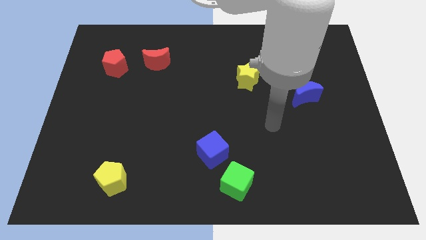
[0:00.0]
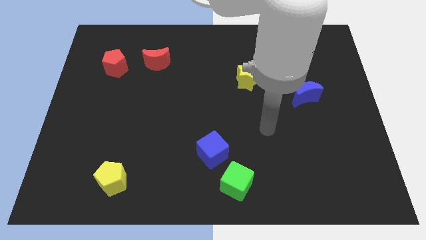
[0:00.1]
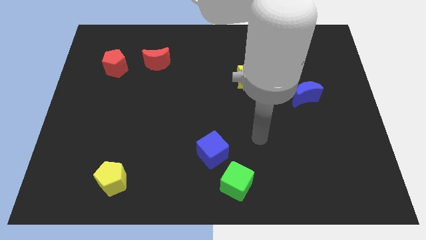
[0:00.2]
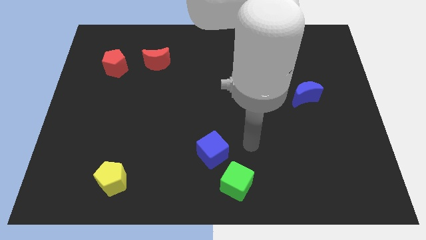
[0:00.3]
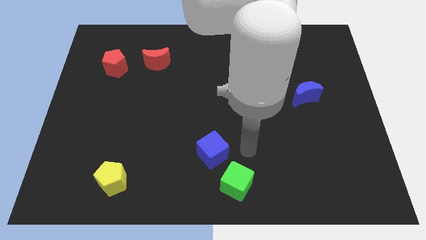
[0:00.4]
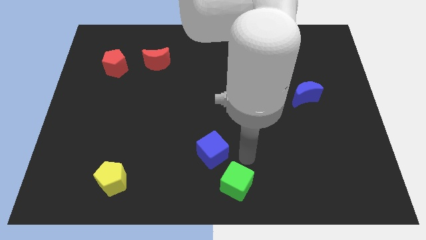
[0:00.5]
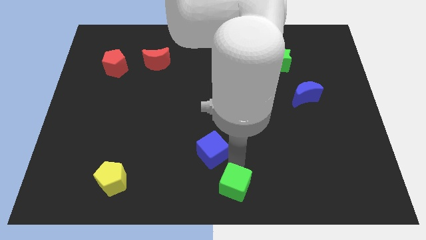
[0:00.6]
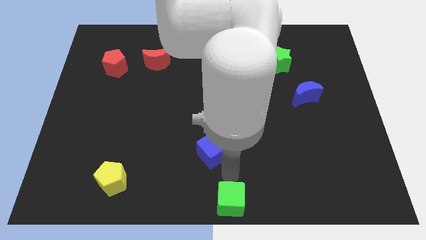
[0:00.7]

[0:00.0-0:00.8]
separate the blue cube from the green cube

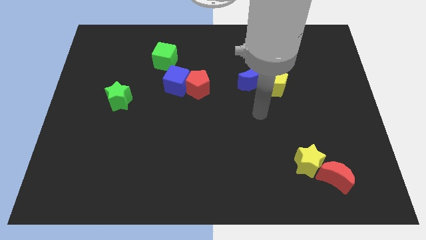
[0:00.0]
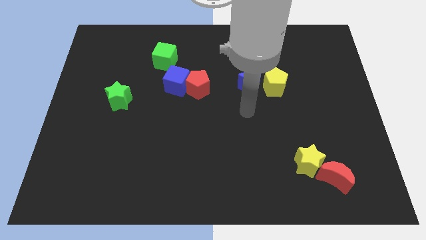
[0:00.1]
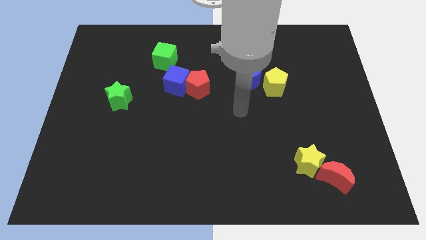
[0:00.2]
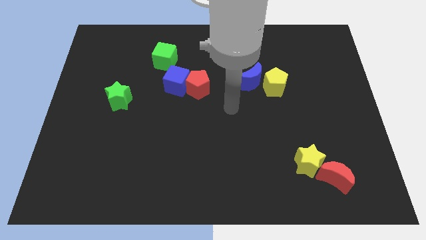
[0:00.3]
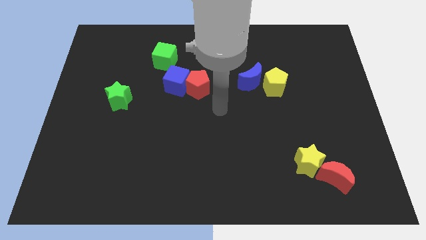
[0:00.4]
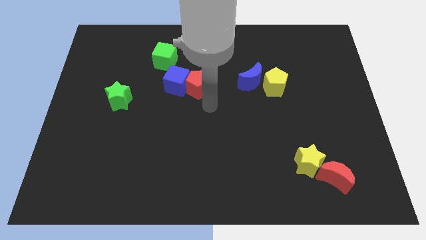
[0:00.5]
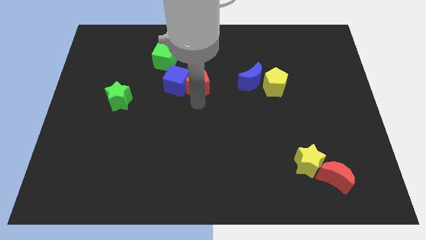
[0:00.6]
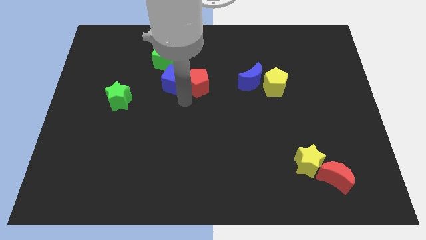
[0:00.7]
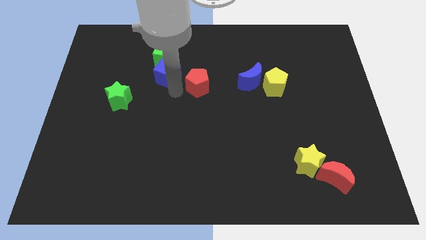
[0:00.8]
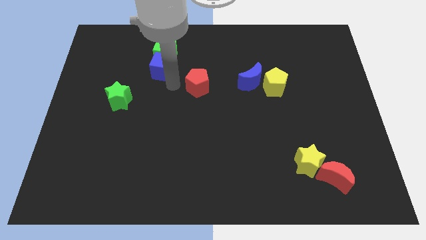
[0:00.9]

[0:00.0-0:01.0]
pull the red pentagon apart from the blue cube

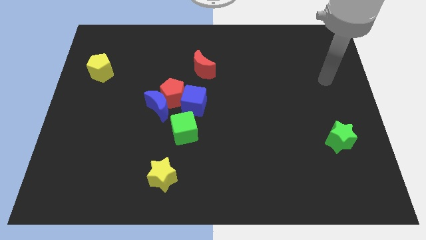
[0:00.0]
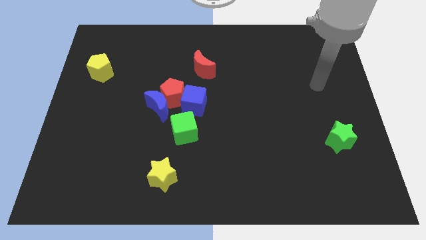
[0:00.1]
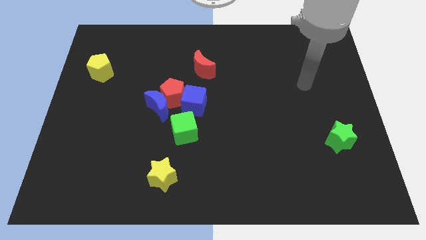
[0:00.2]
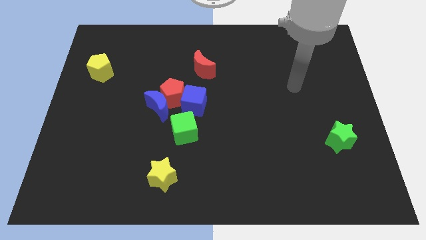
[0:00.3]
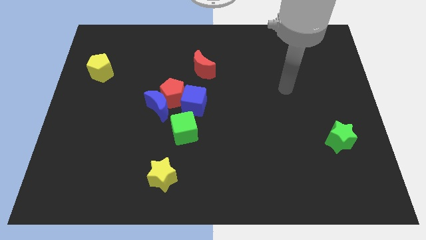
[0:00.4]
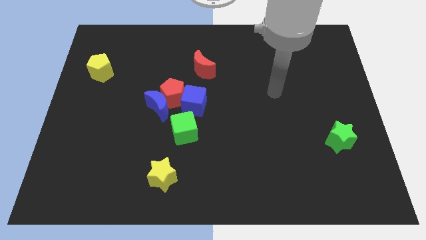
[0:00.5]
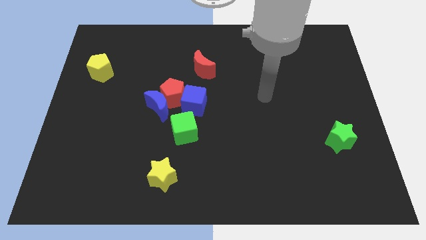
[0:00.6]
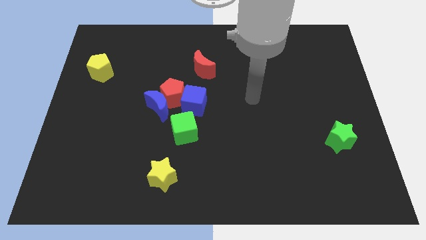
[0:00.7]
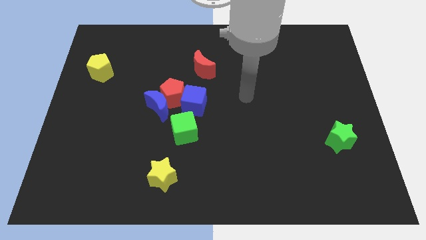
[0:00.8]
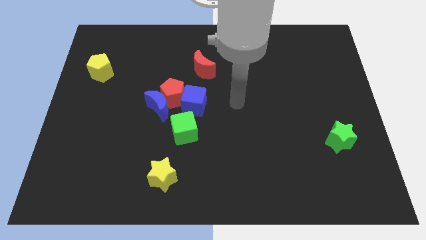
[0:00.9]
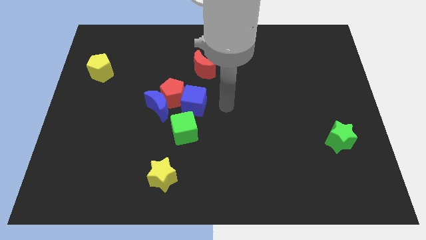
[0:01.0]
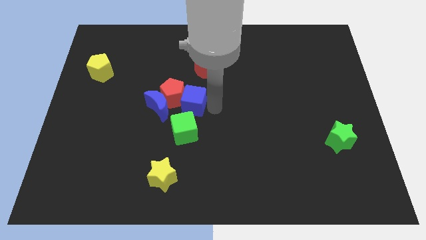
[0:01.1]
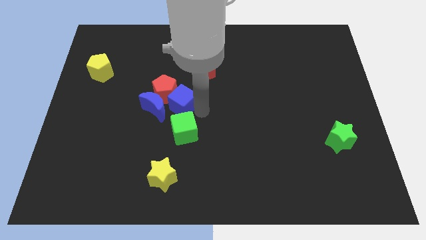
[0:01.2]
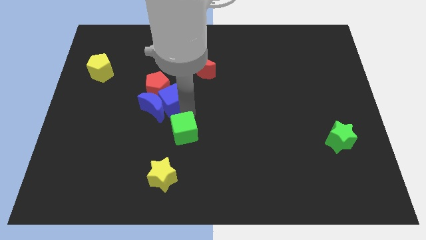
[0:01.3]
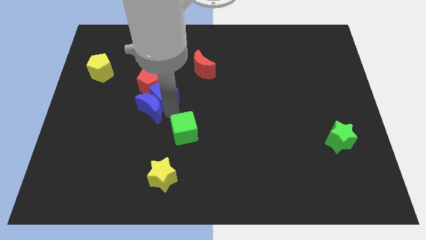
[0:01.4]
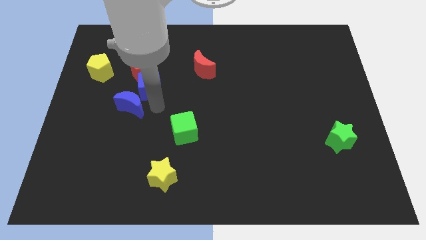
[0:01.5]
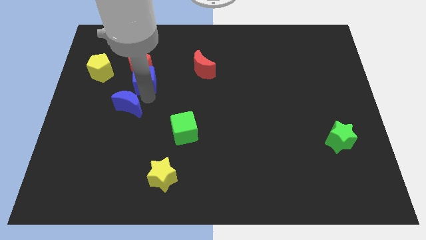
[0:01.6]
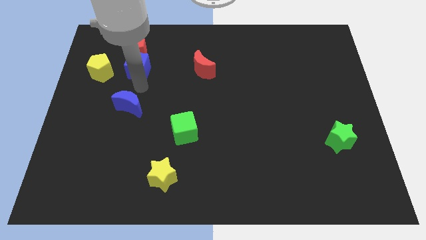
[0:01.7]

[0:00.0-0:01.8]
pull the red pentagon apart from the blue moon and blue cube

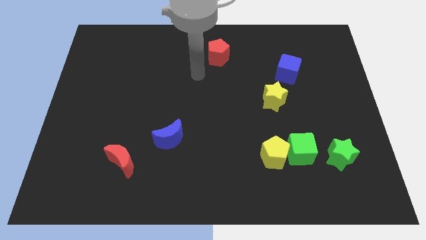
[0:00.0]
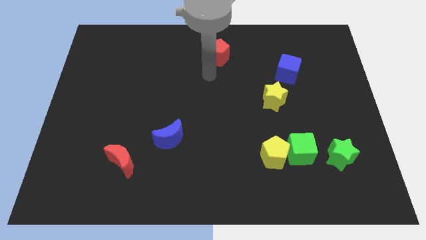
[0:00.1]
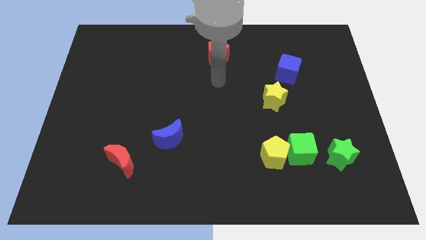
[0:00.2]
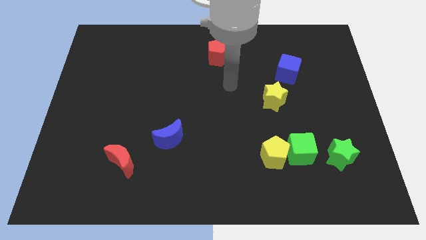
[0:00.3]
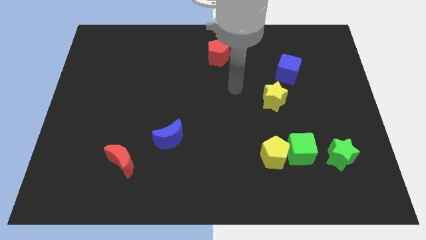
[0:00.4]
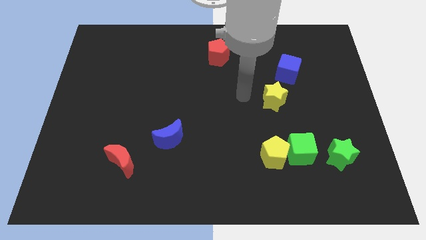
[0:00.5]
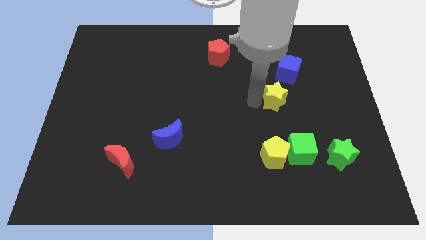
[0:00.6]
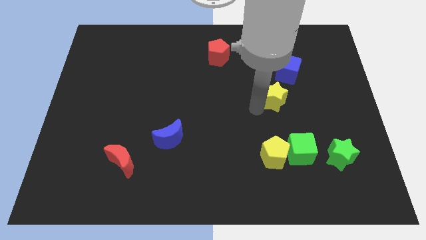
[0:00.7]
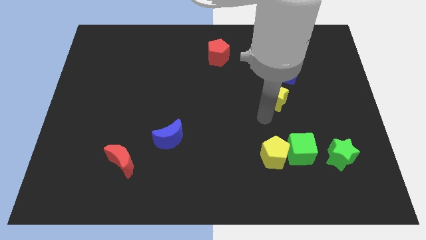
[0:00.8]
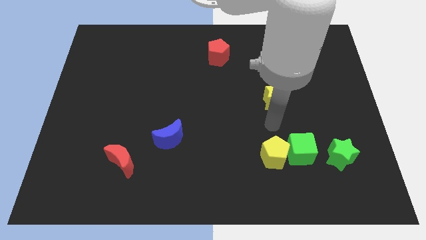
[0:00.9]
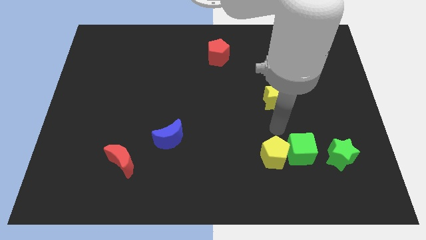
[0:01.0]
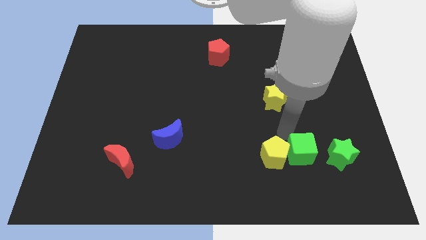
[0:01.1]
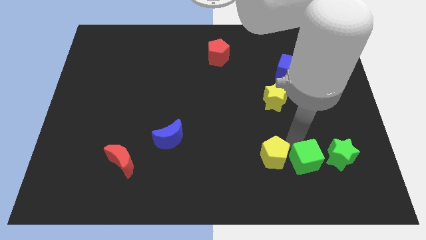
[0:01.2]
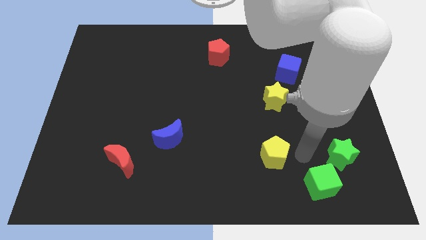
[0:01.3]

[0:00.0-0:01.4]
separate the yellow pentagon from the green cube

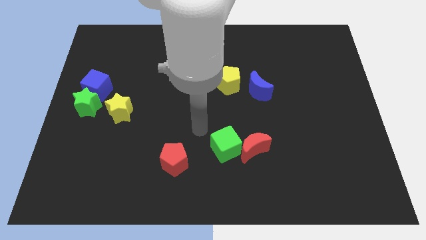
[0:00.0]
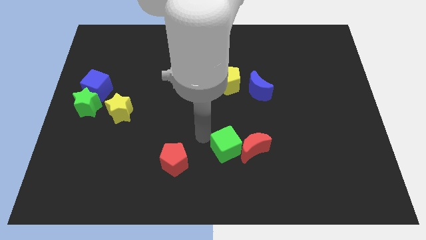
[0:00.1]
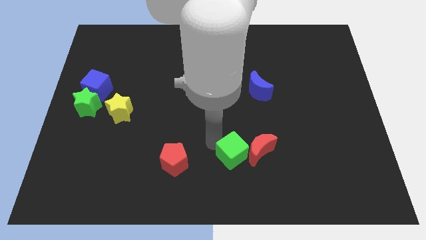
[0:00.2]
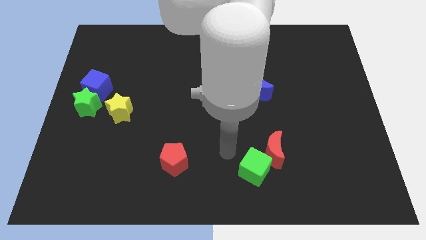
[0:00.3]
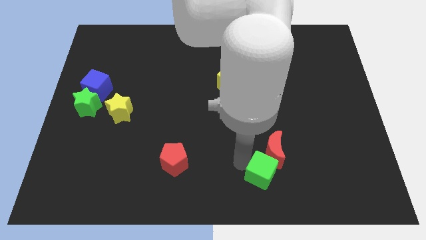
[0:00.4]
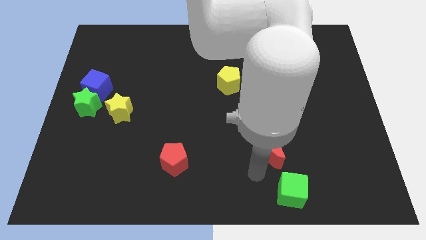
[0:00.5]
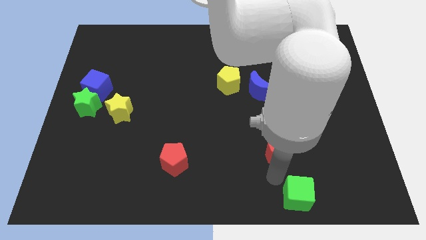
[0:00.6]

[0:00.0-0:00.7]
pull the red moon apart from the green cube

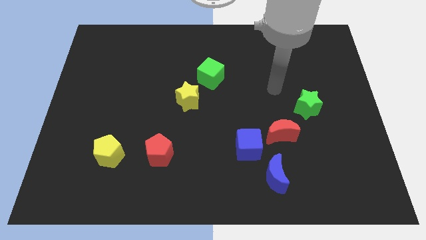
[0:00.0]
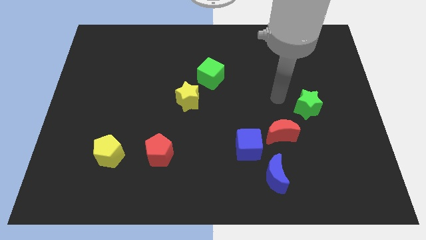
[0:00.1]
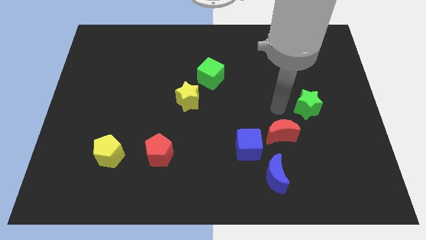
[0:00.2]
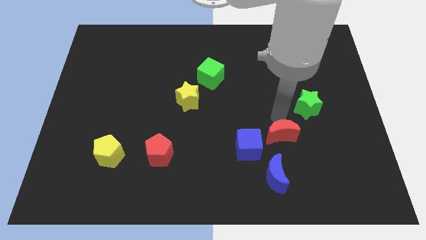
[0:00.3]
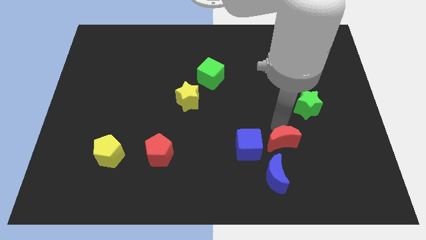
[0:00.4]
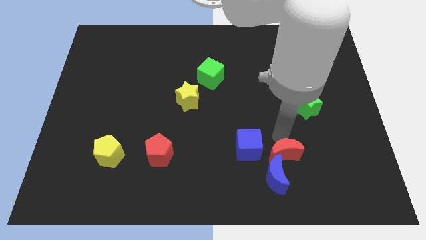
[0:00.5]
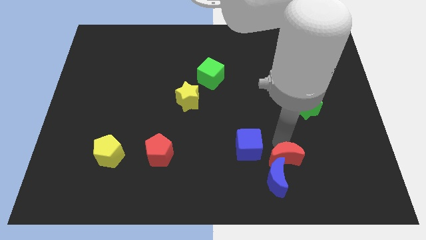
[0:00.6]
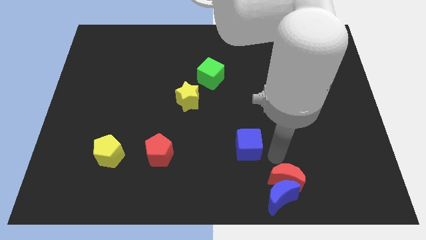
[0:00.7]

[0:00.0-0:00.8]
separate the blue cube from the red moon and blue moon

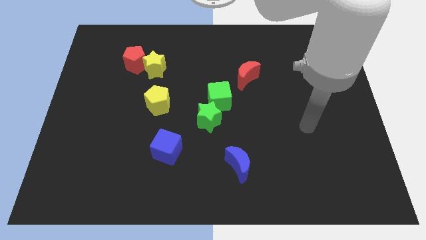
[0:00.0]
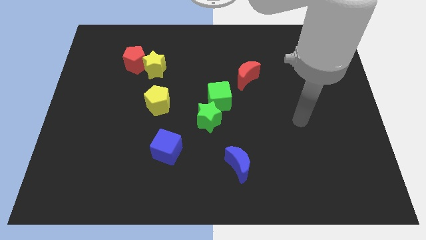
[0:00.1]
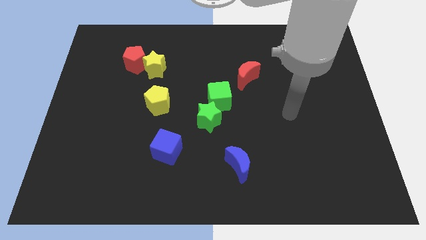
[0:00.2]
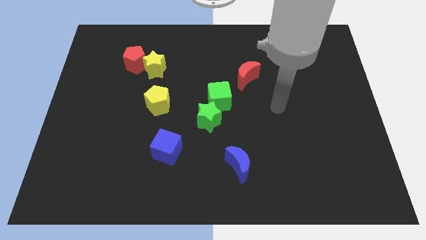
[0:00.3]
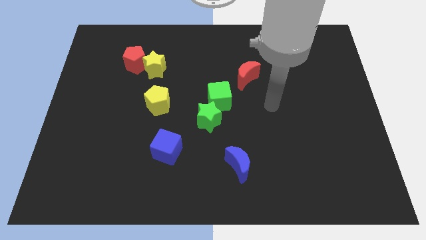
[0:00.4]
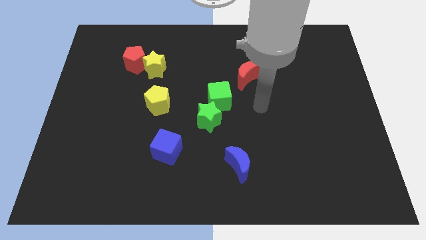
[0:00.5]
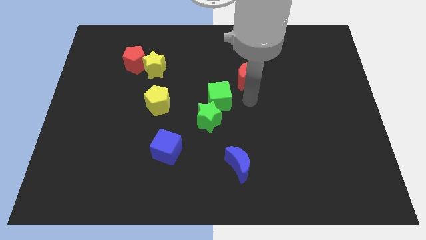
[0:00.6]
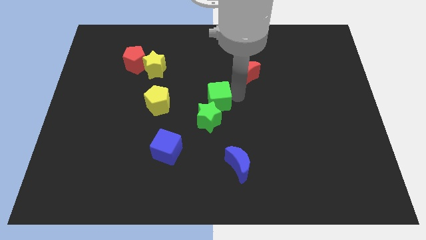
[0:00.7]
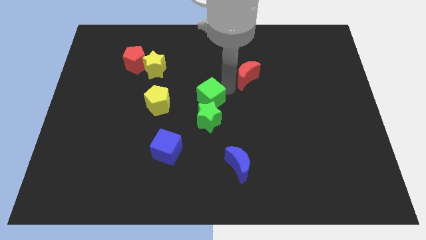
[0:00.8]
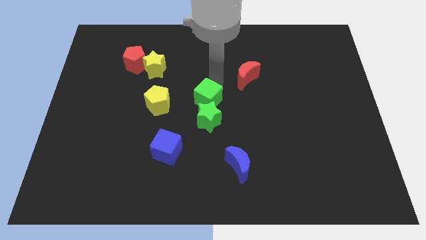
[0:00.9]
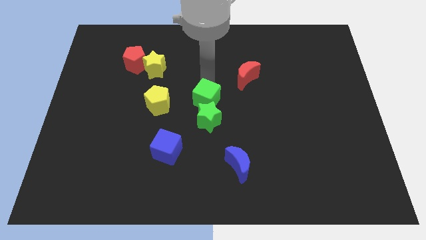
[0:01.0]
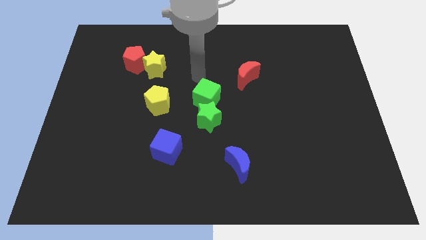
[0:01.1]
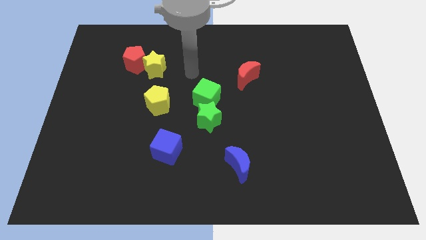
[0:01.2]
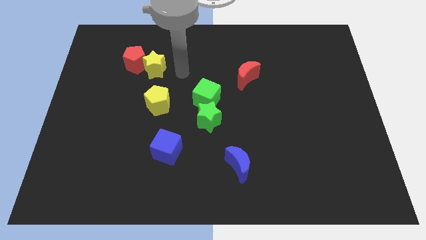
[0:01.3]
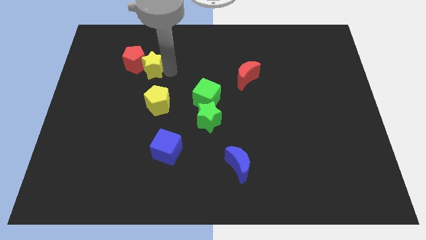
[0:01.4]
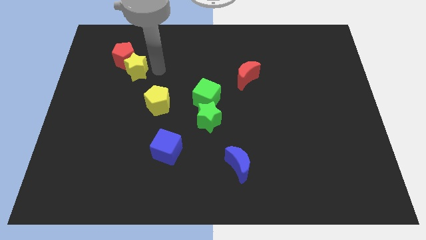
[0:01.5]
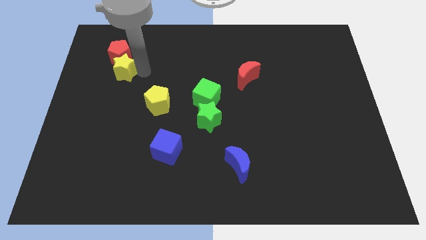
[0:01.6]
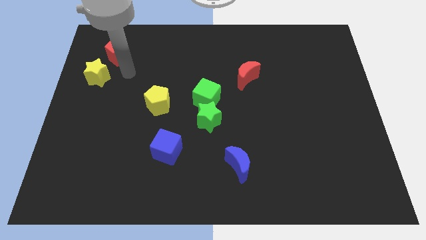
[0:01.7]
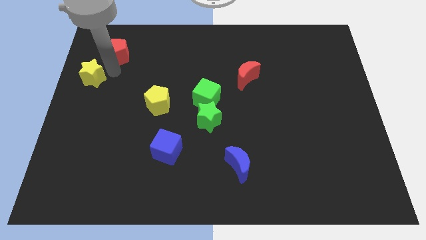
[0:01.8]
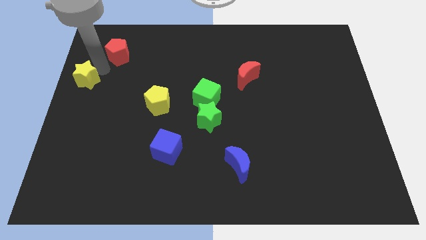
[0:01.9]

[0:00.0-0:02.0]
pull the red pentagon apart from the yellow star

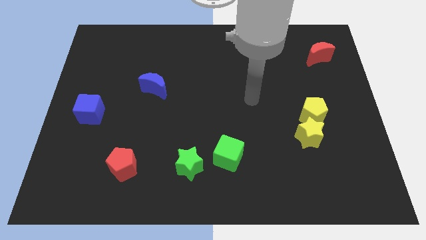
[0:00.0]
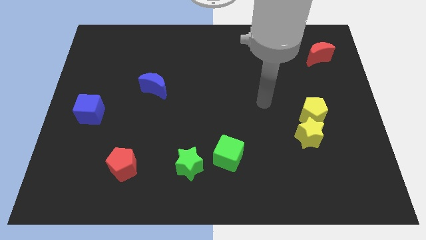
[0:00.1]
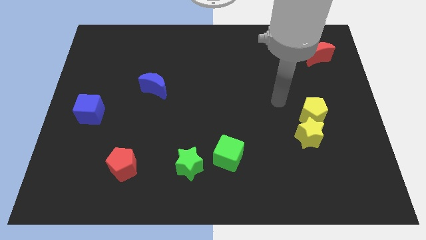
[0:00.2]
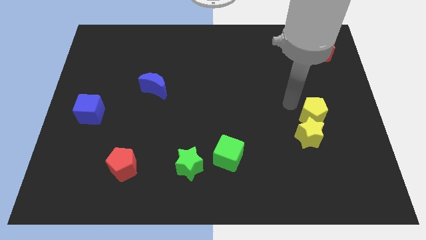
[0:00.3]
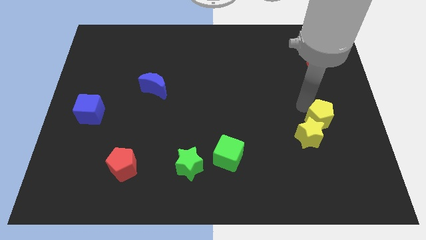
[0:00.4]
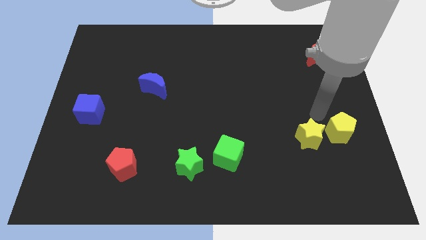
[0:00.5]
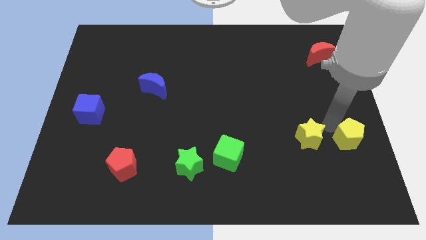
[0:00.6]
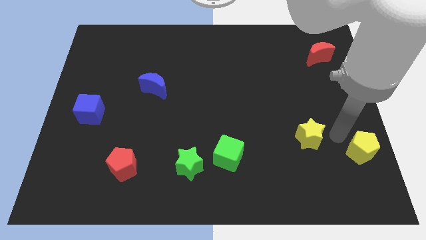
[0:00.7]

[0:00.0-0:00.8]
pull the yellow star apart from the yellow pentagon

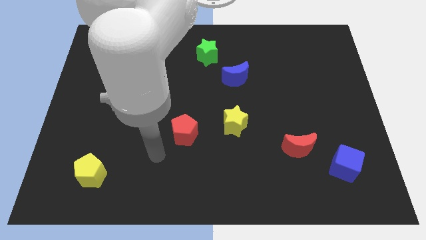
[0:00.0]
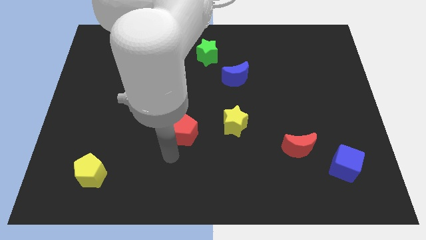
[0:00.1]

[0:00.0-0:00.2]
separate the red moon from the blue cube
